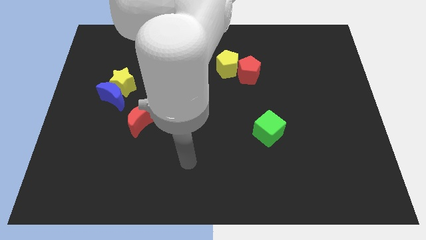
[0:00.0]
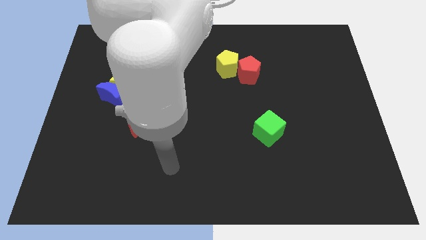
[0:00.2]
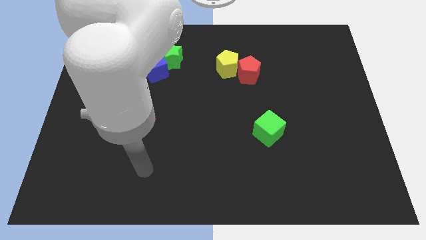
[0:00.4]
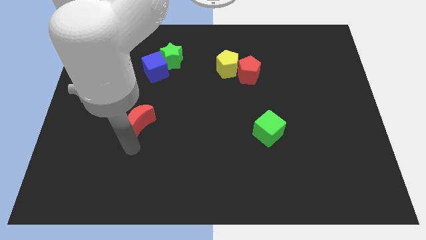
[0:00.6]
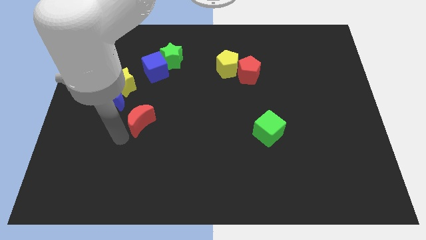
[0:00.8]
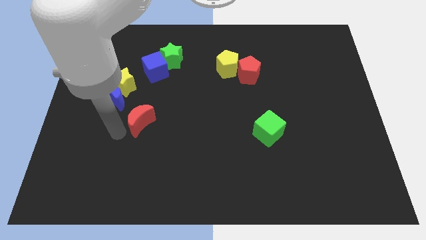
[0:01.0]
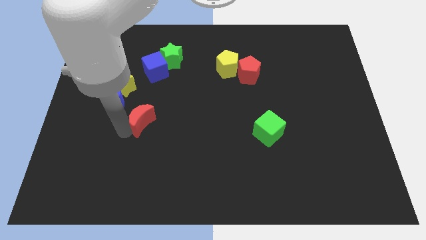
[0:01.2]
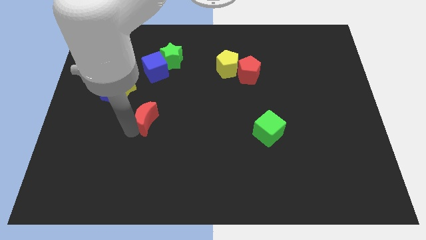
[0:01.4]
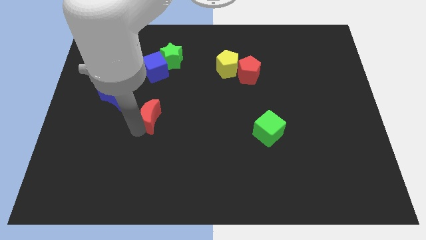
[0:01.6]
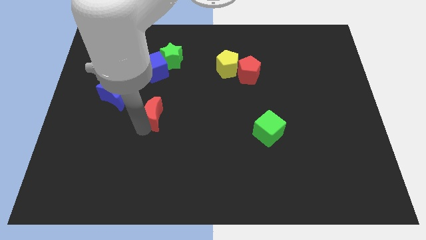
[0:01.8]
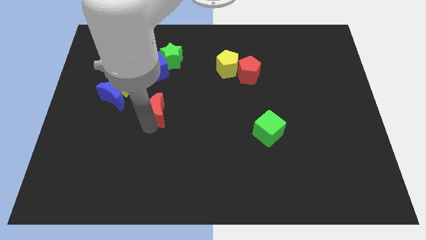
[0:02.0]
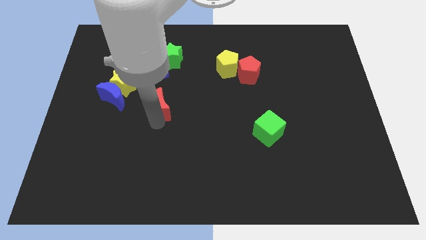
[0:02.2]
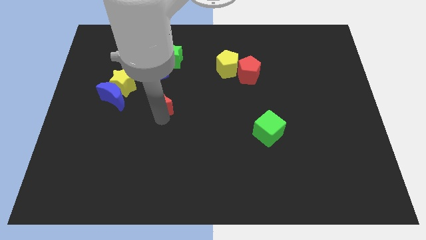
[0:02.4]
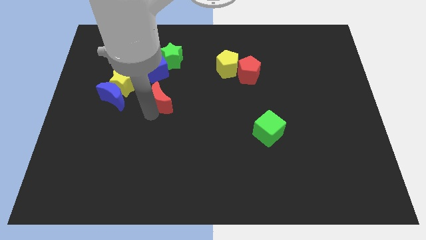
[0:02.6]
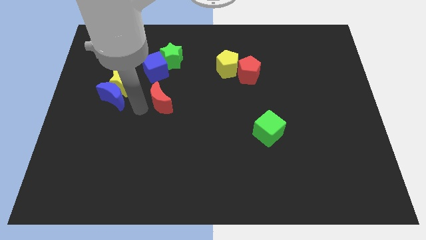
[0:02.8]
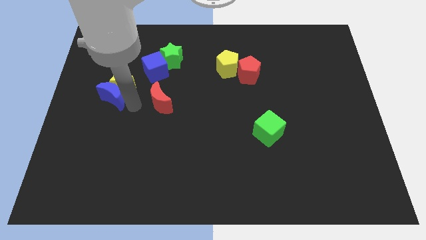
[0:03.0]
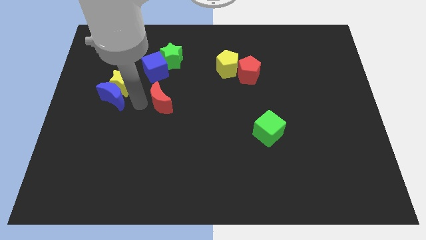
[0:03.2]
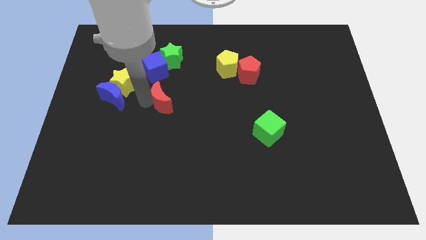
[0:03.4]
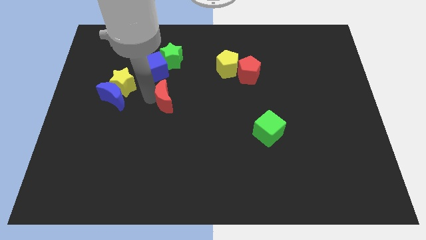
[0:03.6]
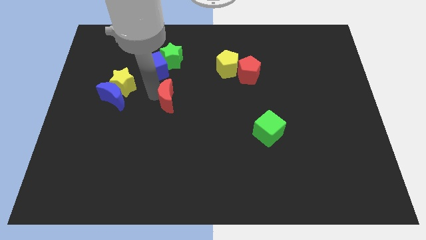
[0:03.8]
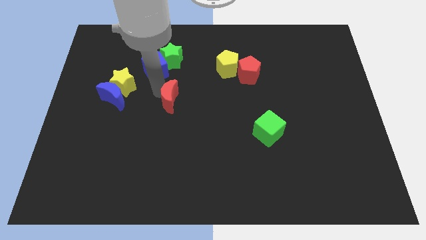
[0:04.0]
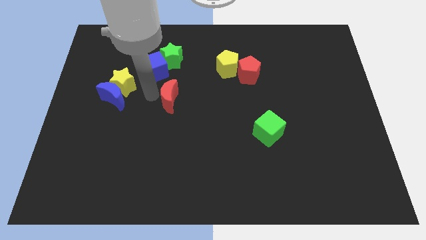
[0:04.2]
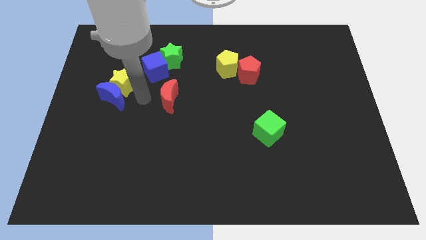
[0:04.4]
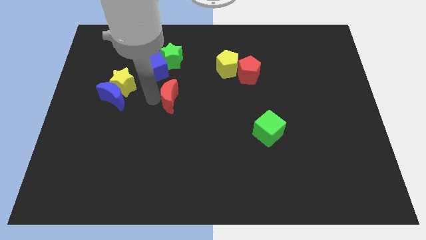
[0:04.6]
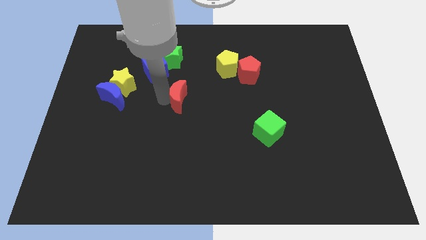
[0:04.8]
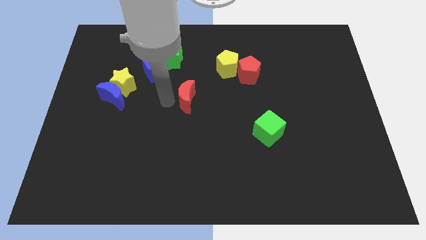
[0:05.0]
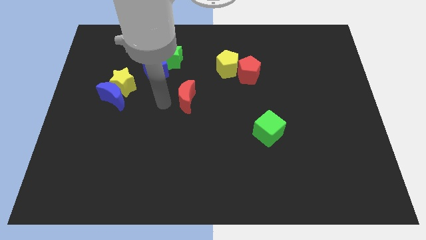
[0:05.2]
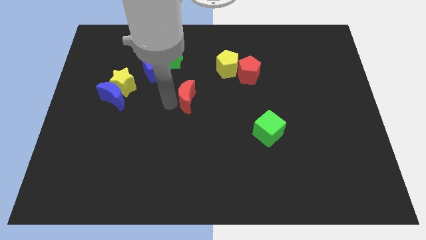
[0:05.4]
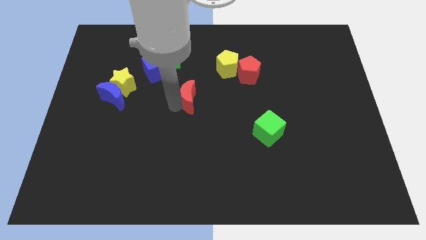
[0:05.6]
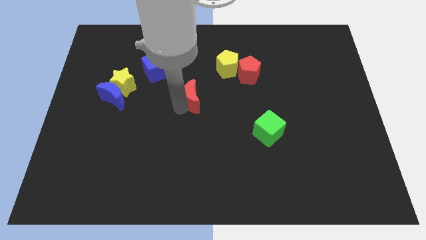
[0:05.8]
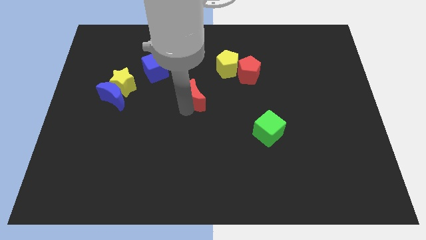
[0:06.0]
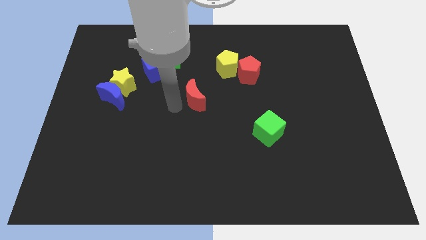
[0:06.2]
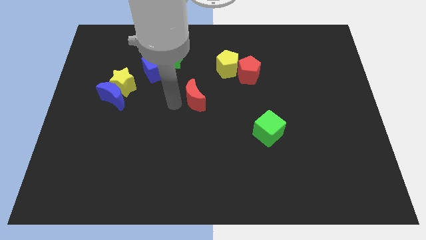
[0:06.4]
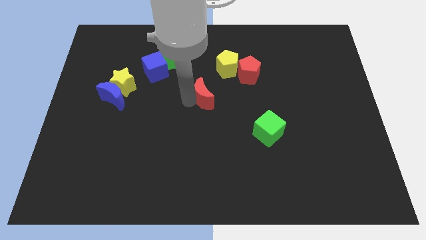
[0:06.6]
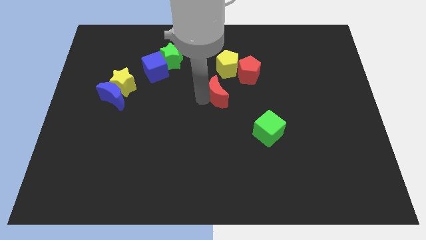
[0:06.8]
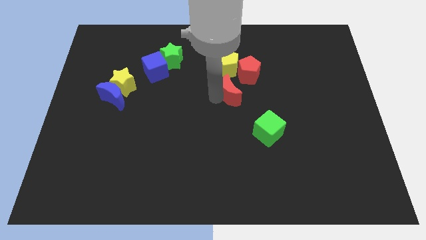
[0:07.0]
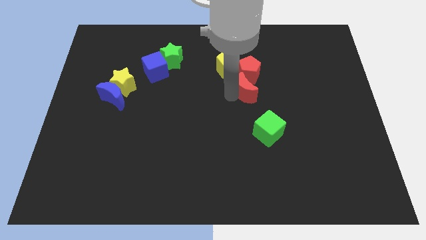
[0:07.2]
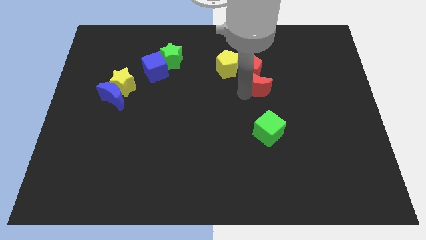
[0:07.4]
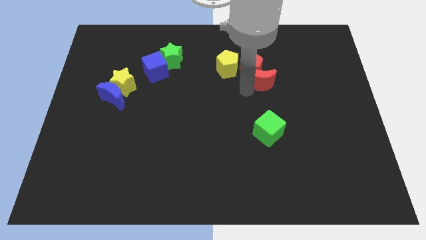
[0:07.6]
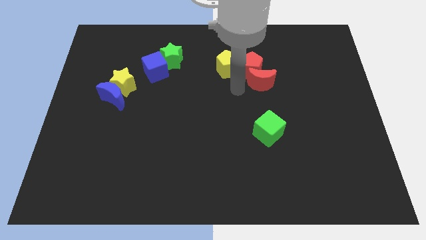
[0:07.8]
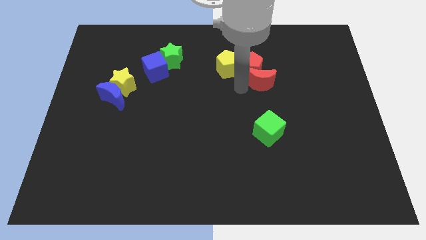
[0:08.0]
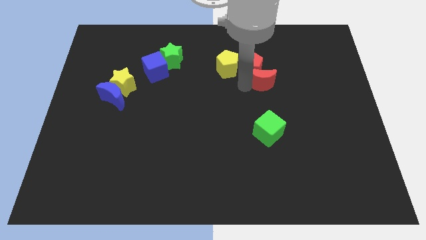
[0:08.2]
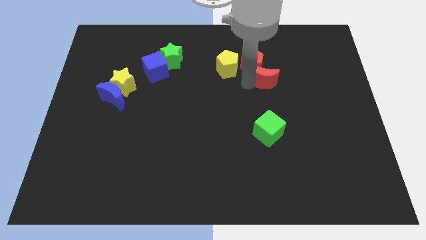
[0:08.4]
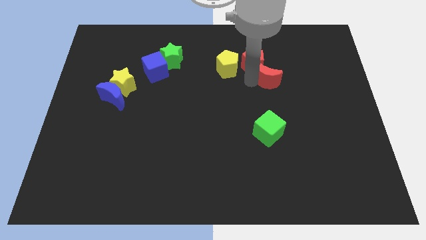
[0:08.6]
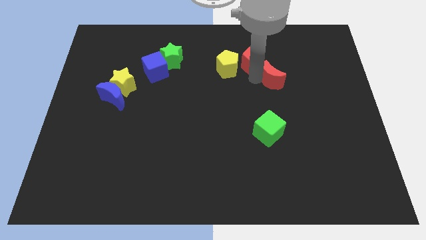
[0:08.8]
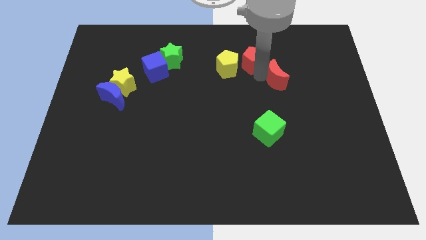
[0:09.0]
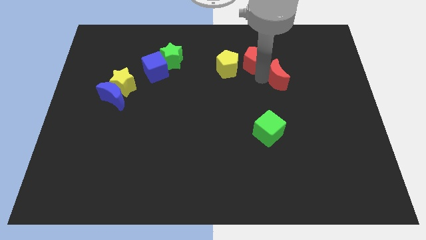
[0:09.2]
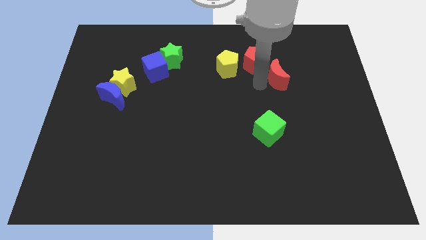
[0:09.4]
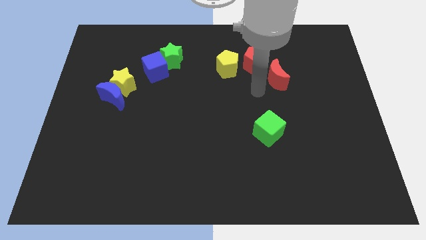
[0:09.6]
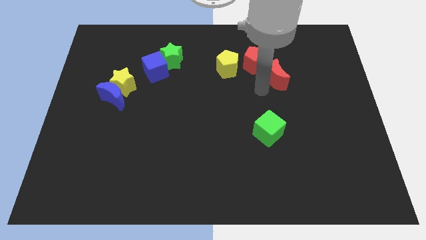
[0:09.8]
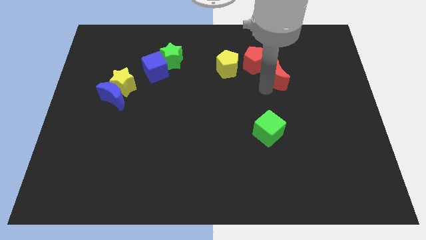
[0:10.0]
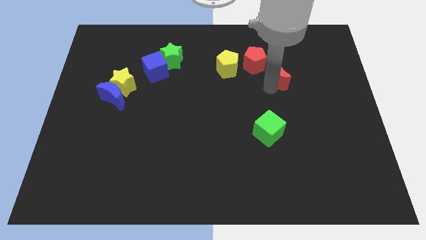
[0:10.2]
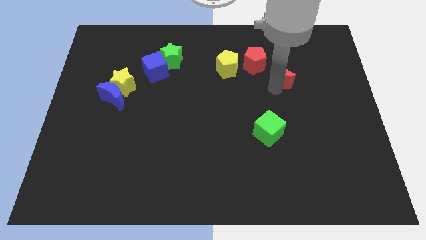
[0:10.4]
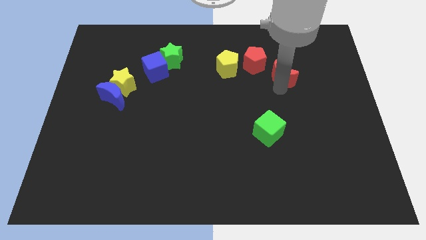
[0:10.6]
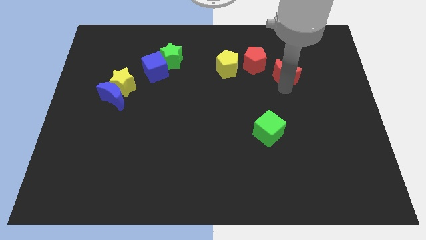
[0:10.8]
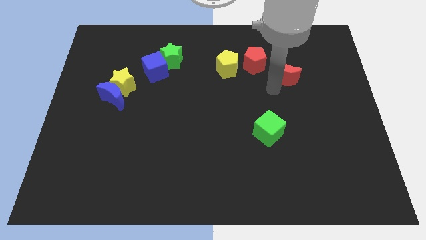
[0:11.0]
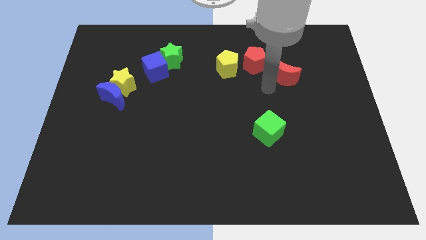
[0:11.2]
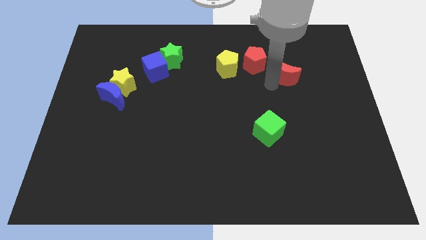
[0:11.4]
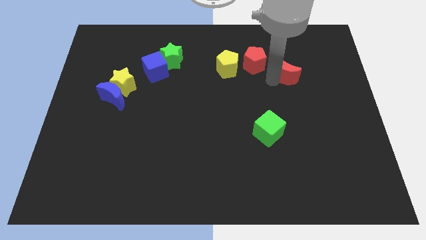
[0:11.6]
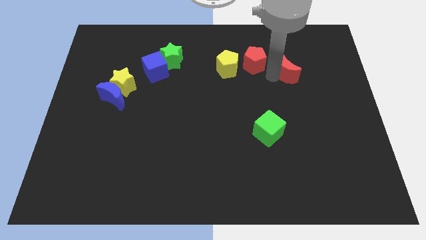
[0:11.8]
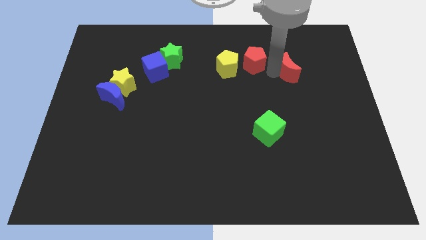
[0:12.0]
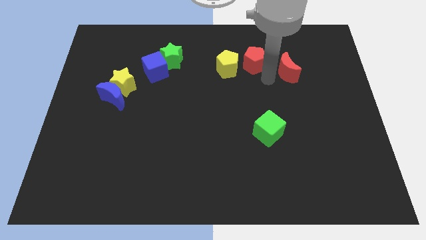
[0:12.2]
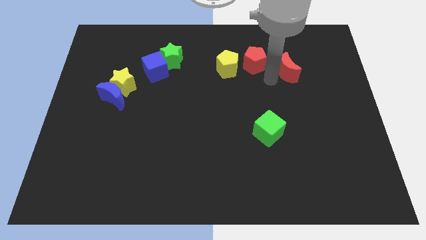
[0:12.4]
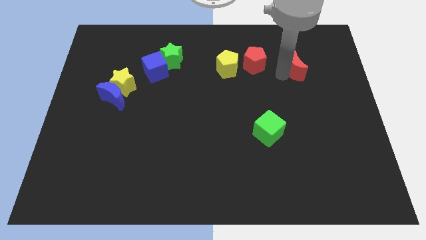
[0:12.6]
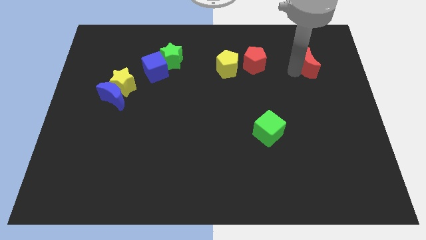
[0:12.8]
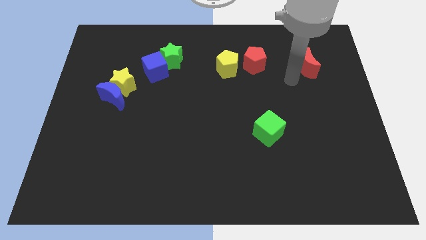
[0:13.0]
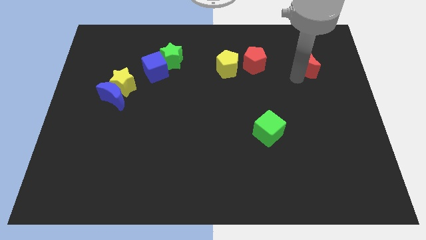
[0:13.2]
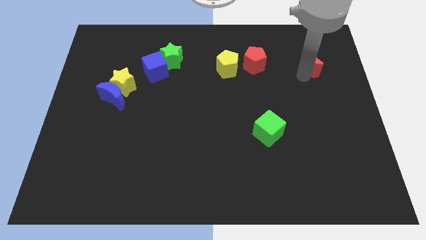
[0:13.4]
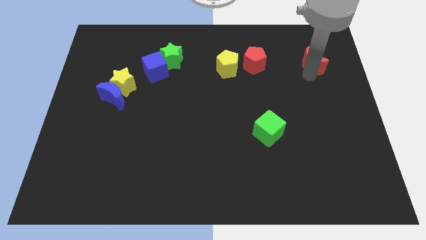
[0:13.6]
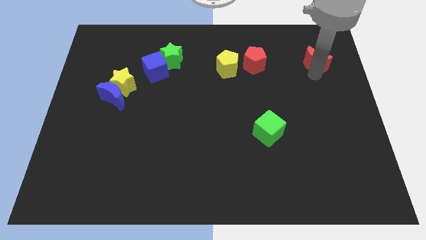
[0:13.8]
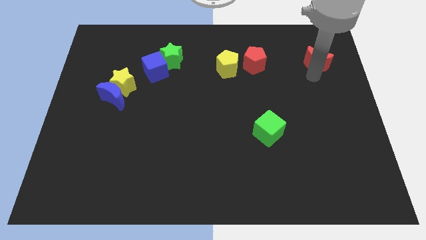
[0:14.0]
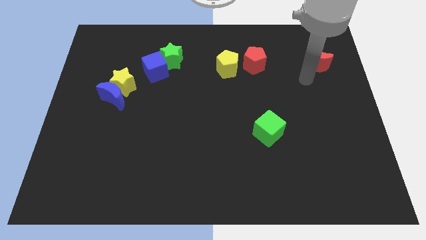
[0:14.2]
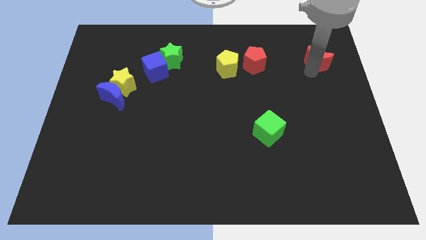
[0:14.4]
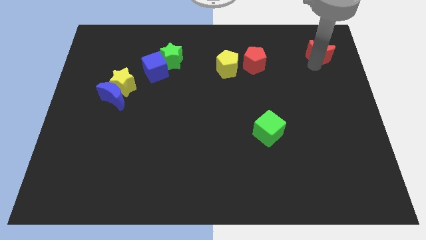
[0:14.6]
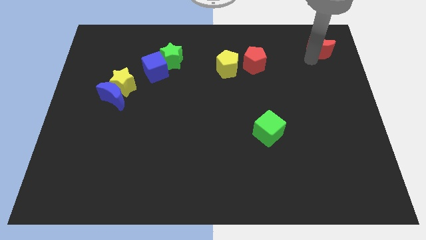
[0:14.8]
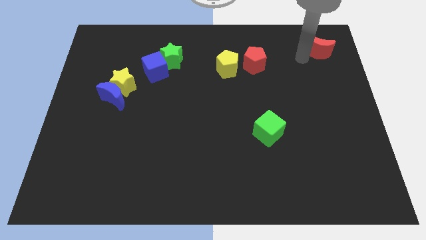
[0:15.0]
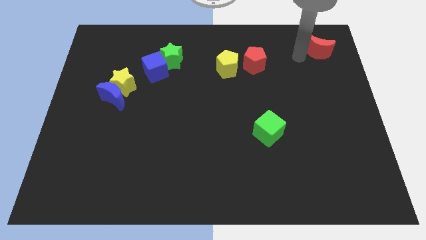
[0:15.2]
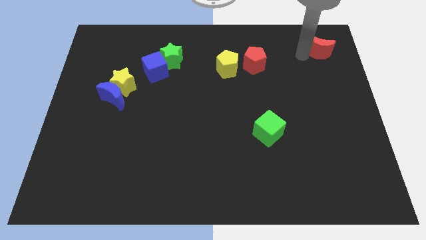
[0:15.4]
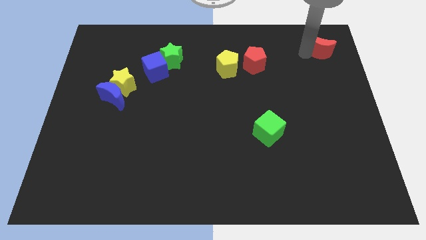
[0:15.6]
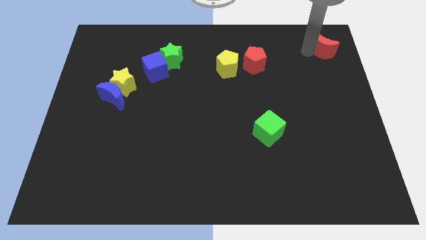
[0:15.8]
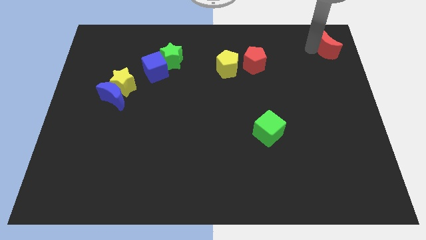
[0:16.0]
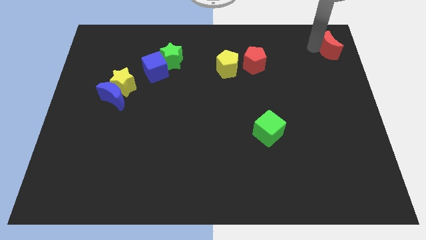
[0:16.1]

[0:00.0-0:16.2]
slide the red moon to the top right of the board
